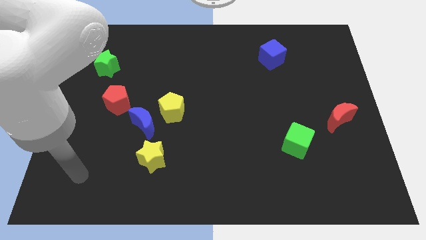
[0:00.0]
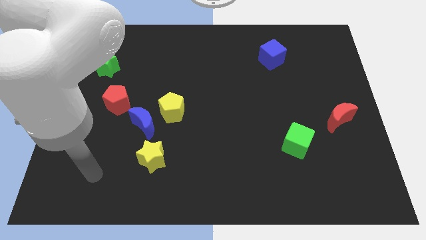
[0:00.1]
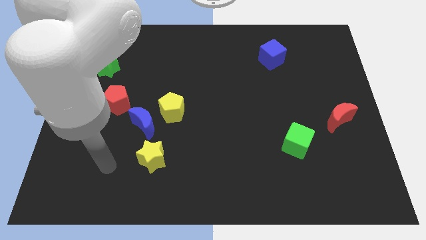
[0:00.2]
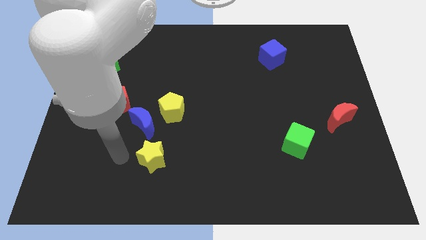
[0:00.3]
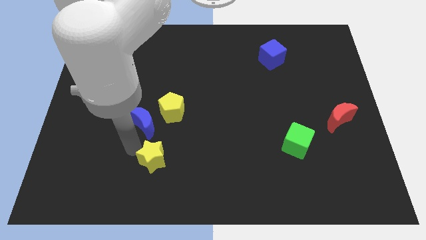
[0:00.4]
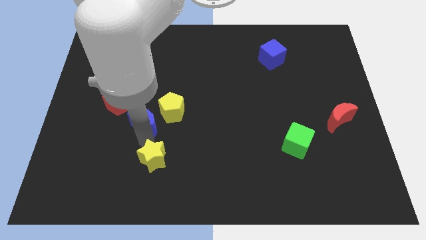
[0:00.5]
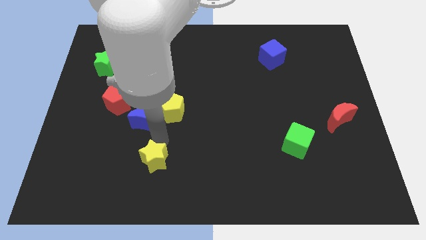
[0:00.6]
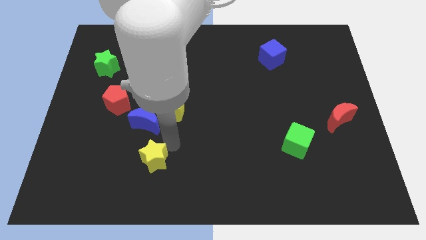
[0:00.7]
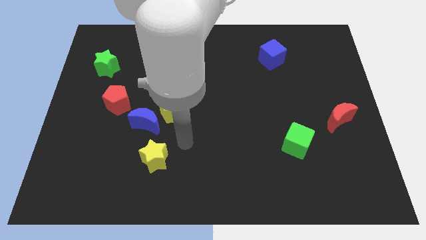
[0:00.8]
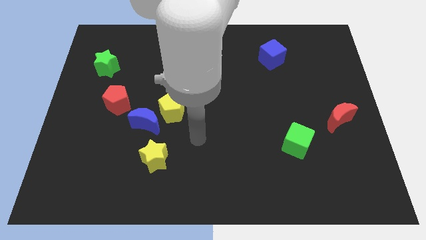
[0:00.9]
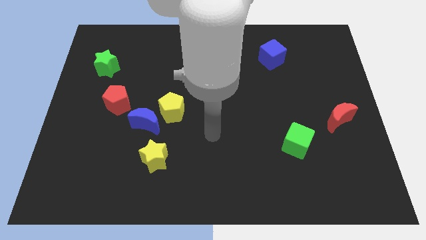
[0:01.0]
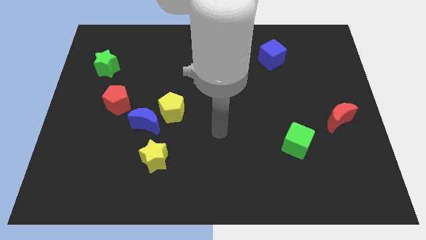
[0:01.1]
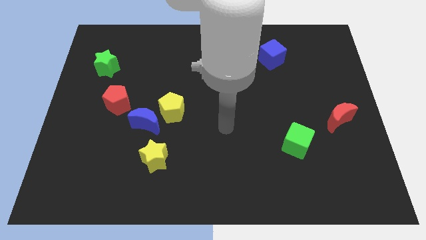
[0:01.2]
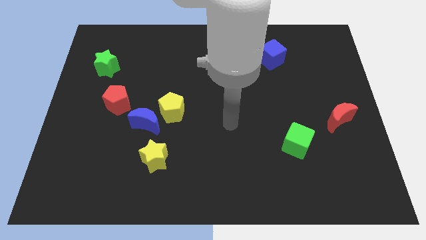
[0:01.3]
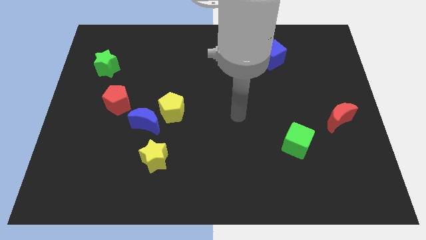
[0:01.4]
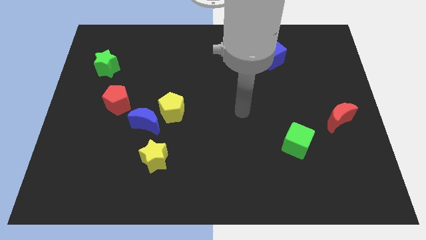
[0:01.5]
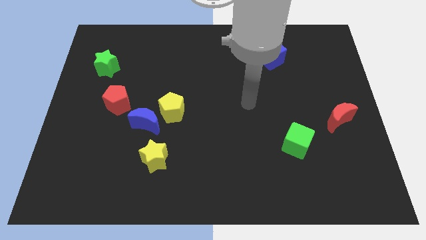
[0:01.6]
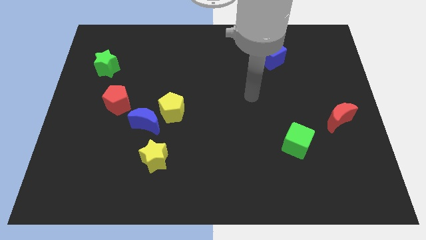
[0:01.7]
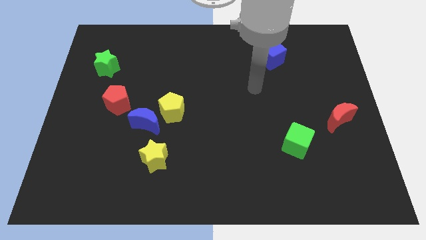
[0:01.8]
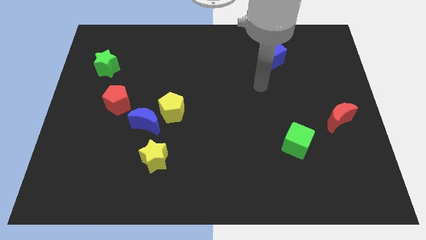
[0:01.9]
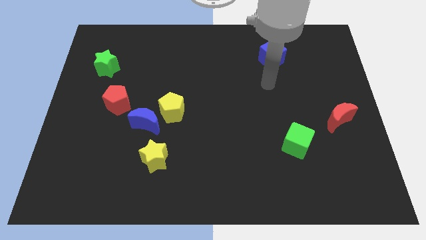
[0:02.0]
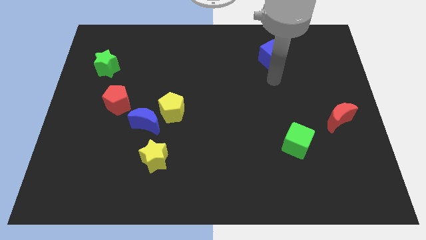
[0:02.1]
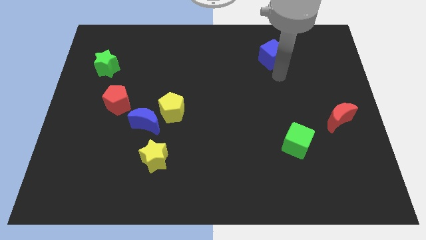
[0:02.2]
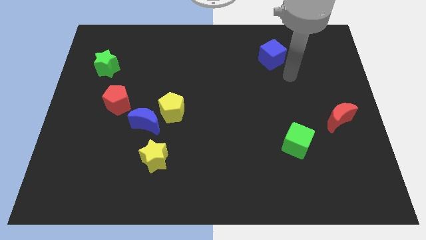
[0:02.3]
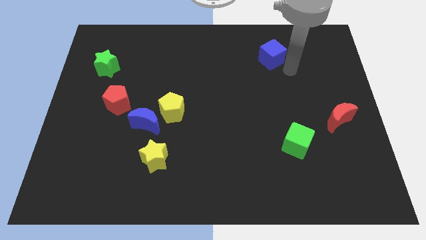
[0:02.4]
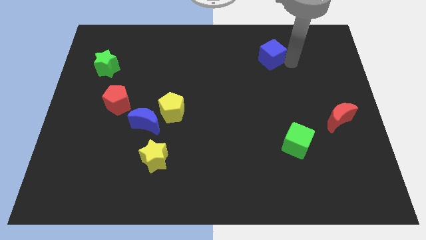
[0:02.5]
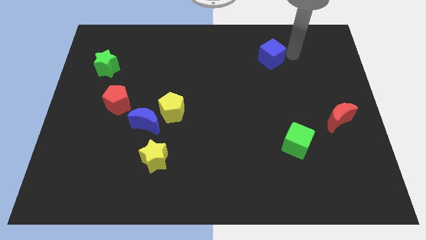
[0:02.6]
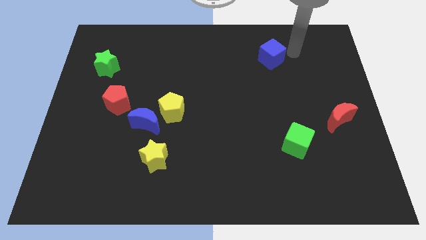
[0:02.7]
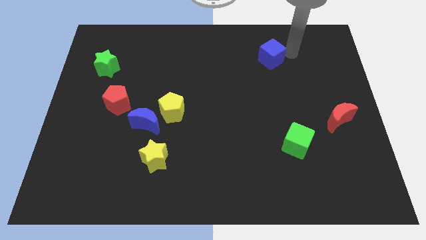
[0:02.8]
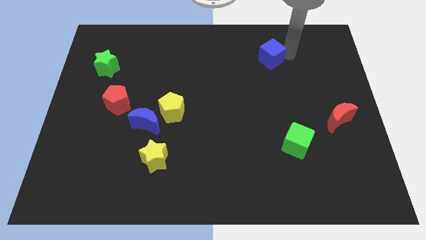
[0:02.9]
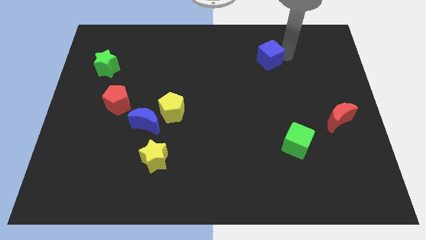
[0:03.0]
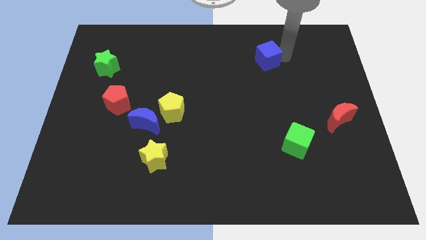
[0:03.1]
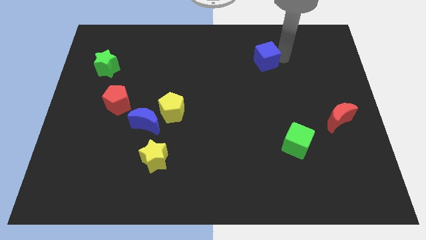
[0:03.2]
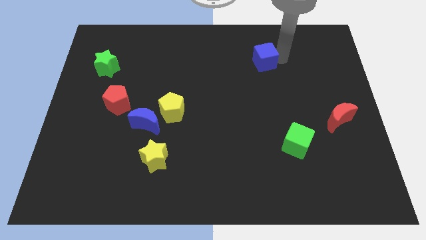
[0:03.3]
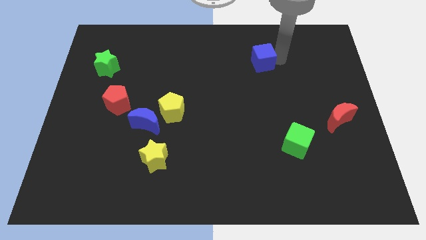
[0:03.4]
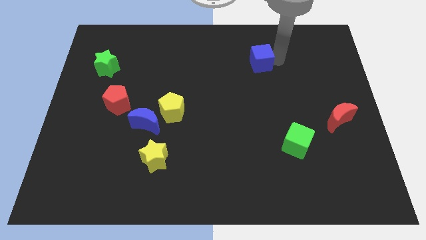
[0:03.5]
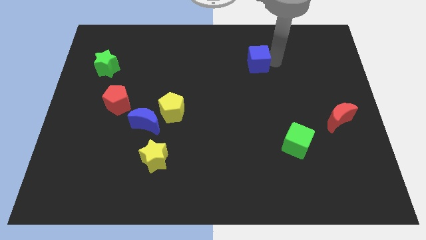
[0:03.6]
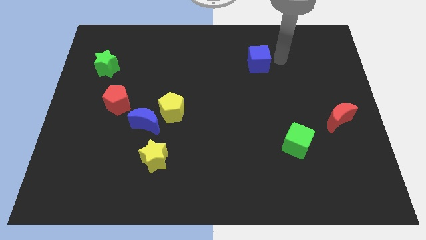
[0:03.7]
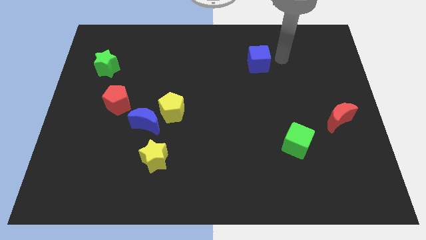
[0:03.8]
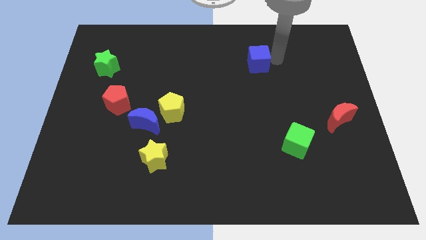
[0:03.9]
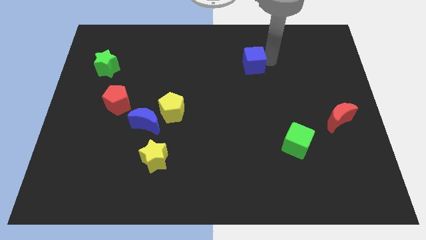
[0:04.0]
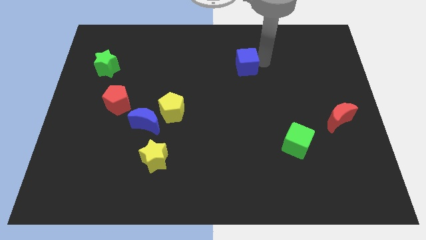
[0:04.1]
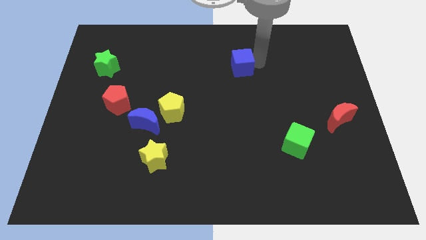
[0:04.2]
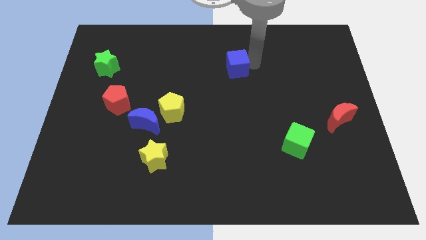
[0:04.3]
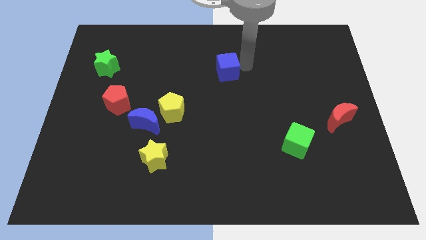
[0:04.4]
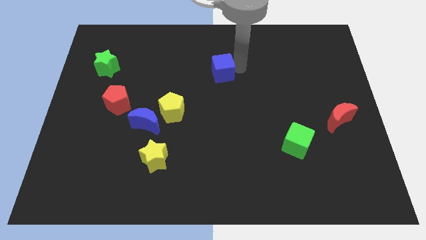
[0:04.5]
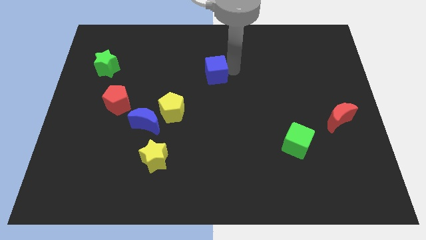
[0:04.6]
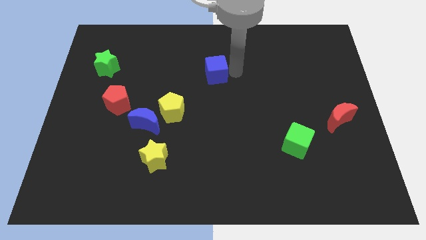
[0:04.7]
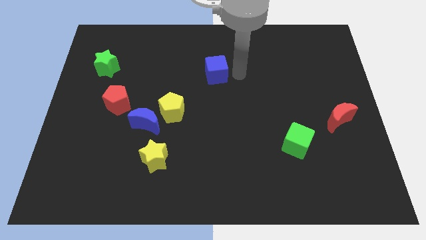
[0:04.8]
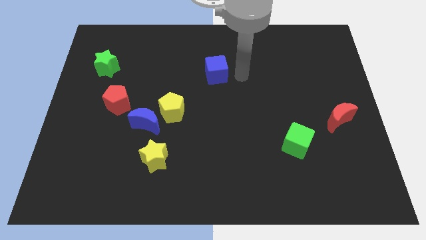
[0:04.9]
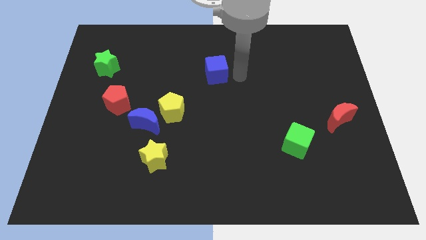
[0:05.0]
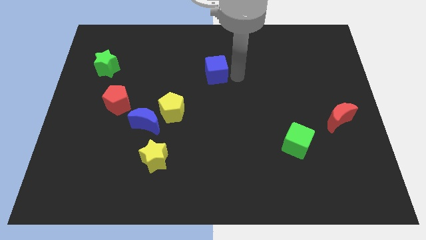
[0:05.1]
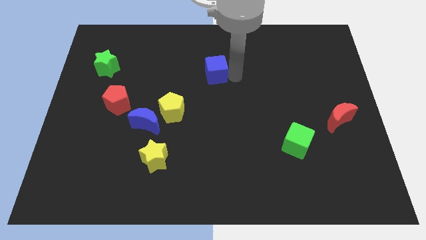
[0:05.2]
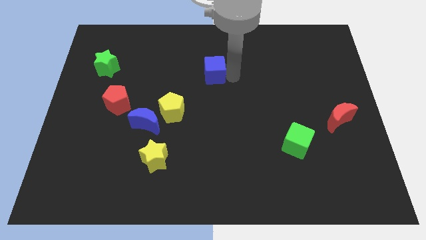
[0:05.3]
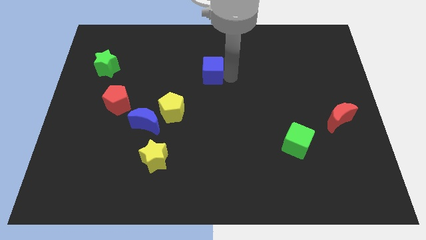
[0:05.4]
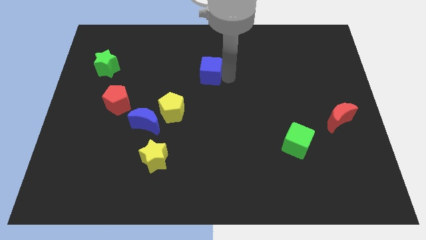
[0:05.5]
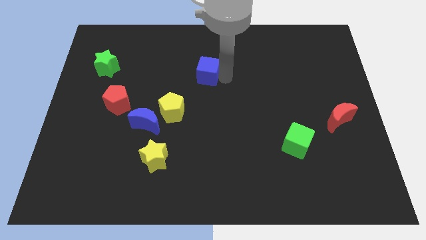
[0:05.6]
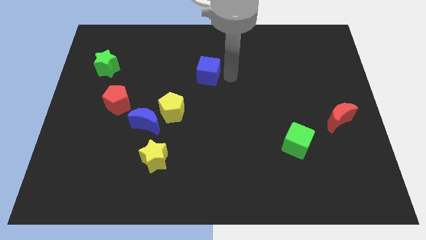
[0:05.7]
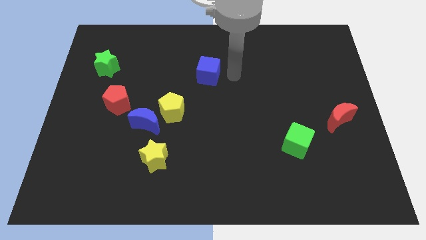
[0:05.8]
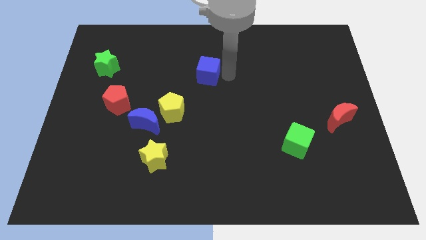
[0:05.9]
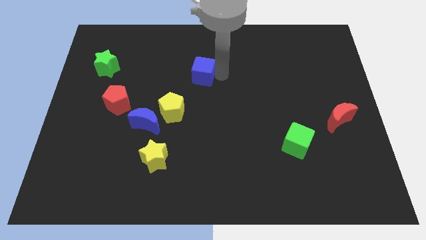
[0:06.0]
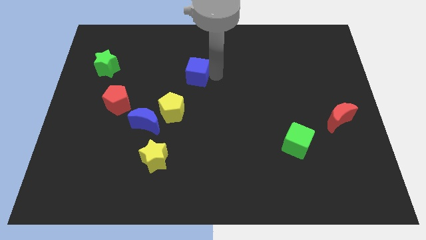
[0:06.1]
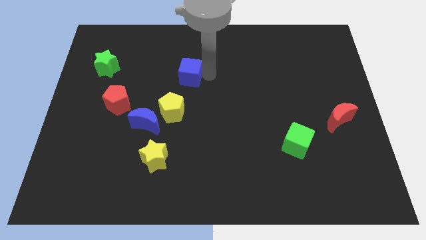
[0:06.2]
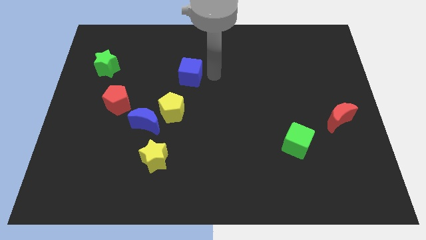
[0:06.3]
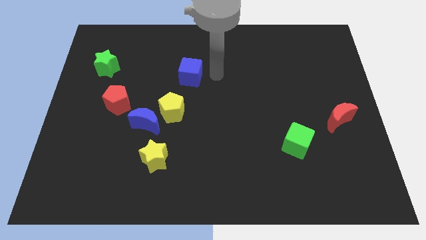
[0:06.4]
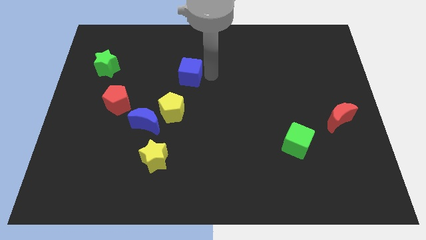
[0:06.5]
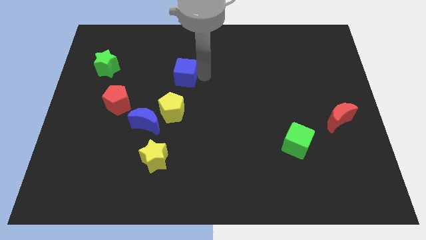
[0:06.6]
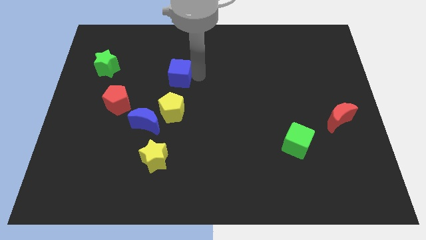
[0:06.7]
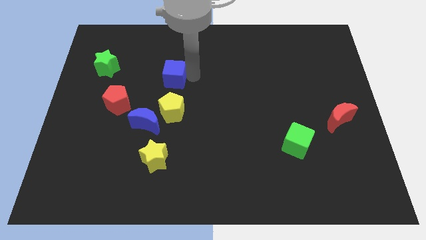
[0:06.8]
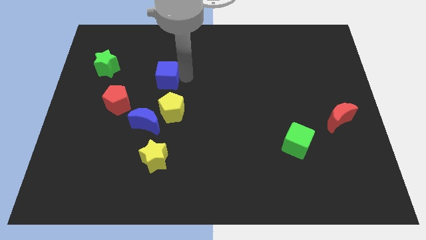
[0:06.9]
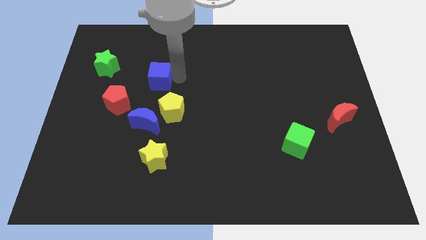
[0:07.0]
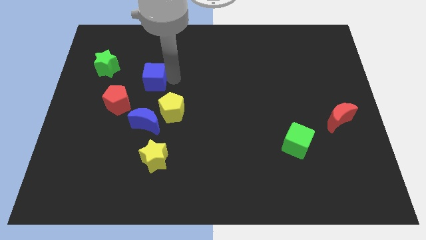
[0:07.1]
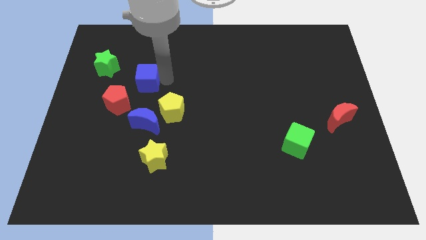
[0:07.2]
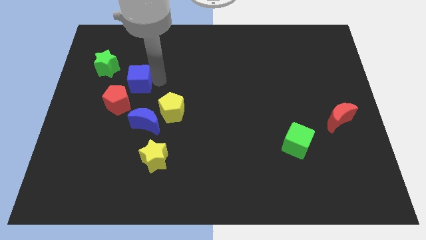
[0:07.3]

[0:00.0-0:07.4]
push the blue cube to the bottom right of the green star
